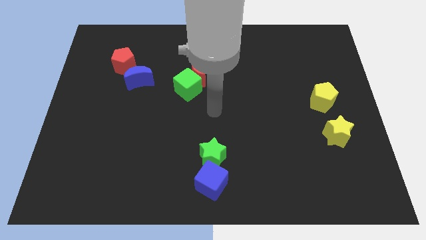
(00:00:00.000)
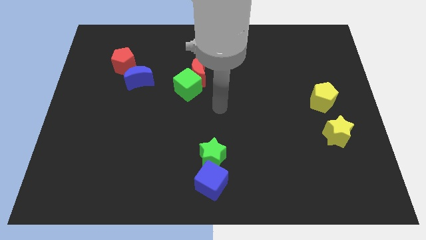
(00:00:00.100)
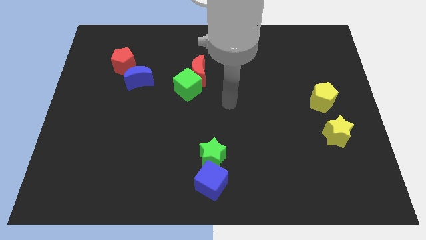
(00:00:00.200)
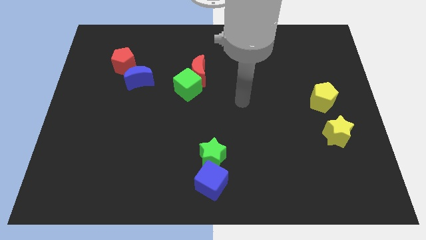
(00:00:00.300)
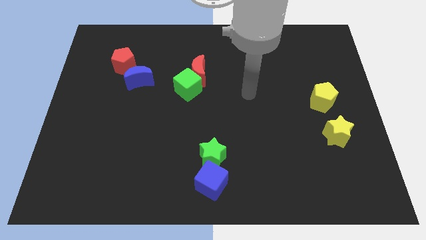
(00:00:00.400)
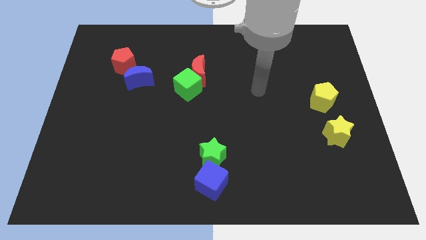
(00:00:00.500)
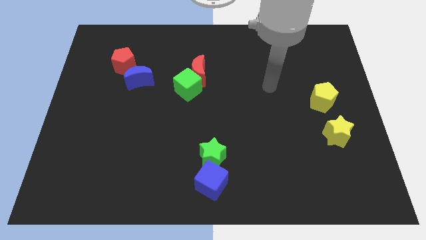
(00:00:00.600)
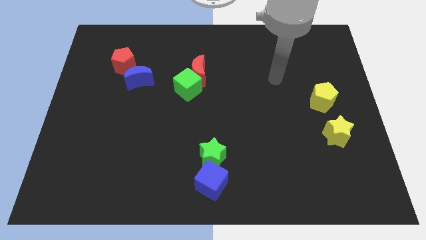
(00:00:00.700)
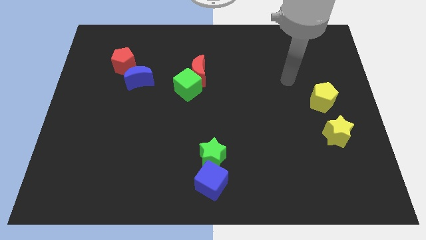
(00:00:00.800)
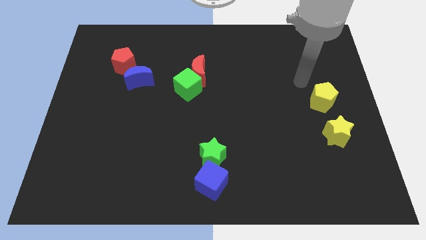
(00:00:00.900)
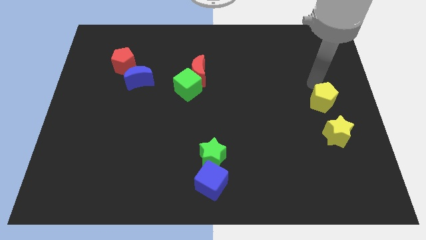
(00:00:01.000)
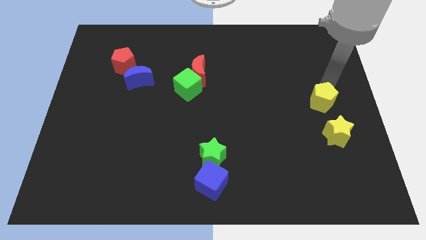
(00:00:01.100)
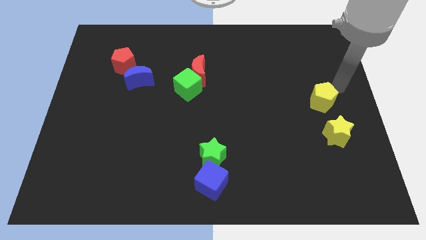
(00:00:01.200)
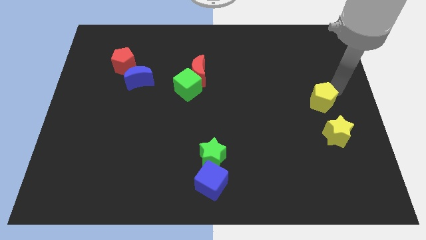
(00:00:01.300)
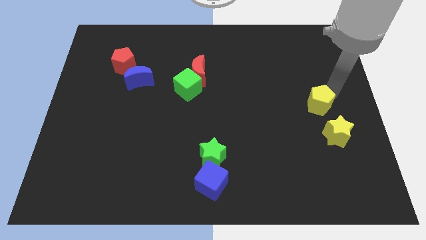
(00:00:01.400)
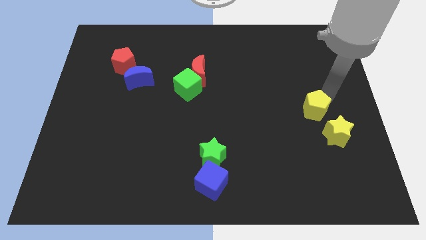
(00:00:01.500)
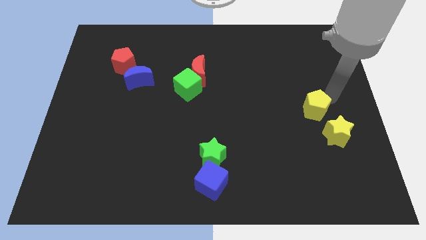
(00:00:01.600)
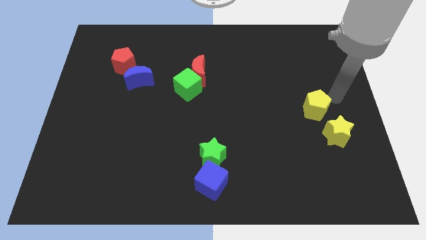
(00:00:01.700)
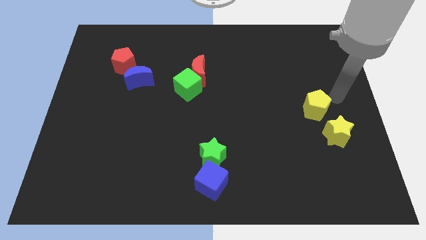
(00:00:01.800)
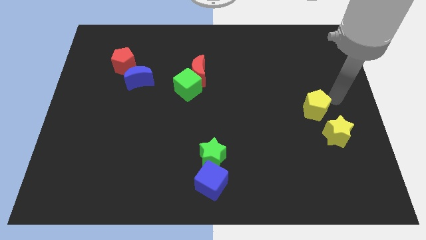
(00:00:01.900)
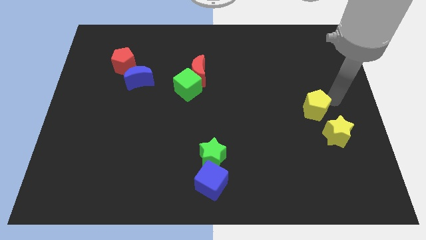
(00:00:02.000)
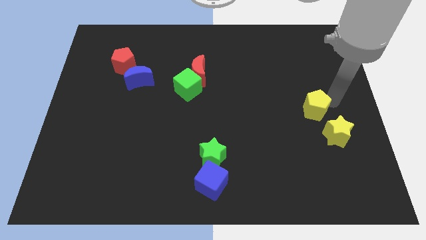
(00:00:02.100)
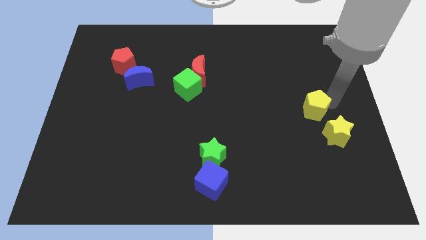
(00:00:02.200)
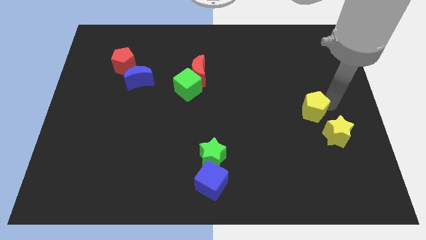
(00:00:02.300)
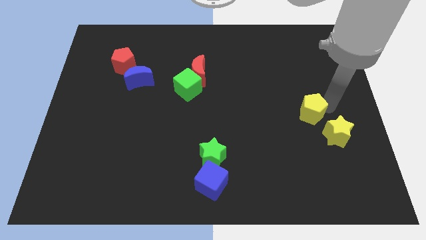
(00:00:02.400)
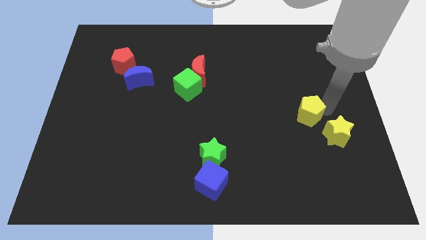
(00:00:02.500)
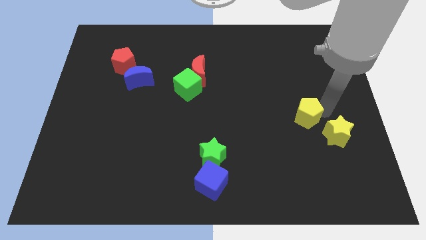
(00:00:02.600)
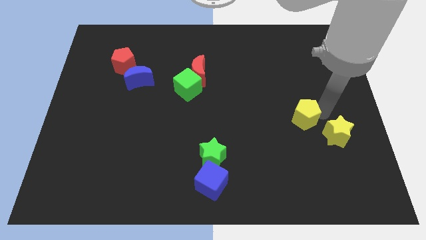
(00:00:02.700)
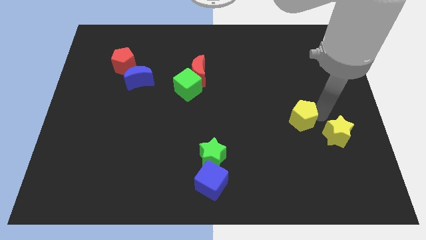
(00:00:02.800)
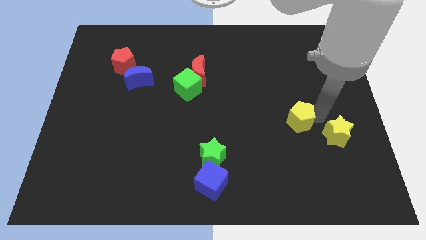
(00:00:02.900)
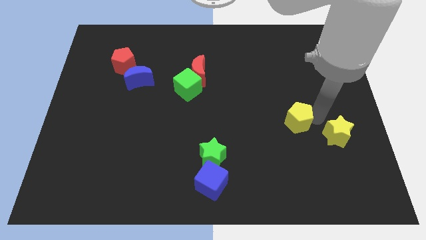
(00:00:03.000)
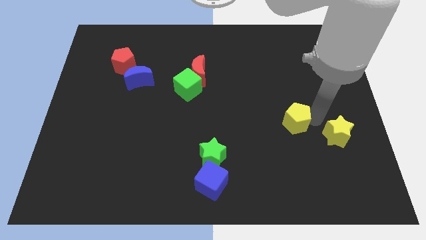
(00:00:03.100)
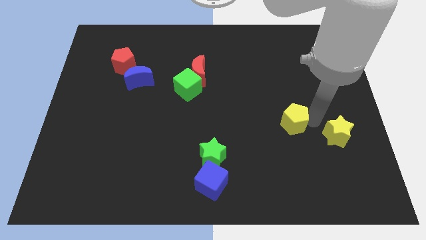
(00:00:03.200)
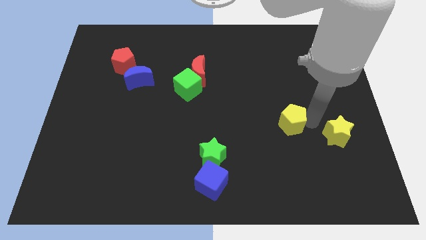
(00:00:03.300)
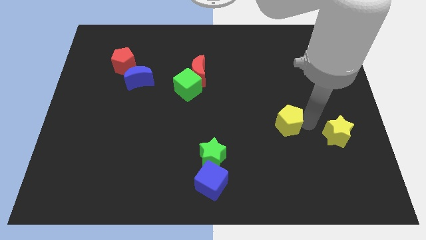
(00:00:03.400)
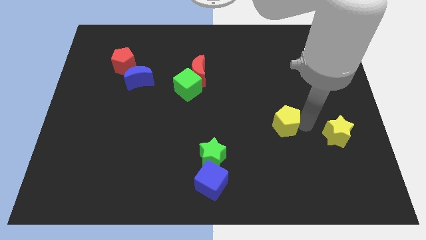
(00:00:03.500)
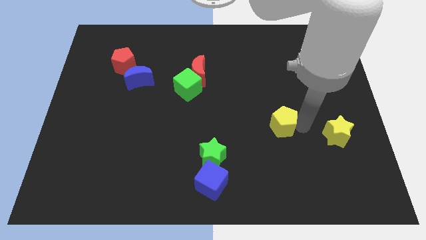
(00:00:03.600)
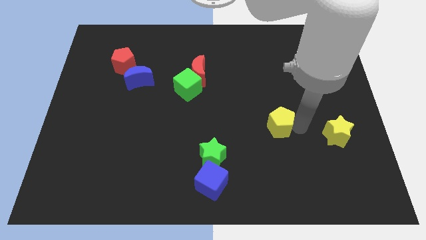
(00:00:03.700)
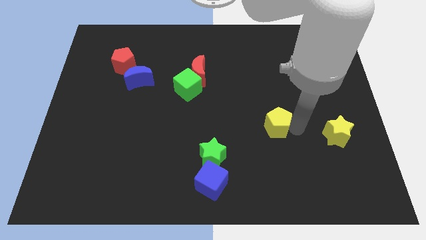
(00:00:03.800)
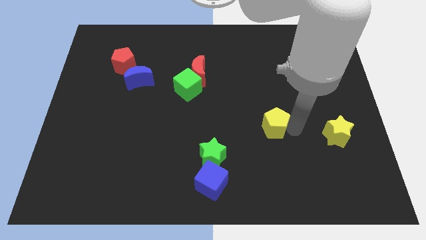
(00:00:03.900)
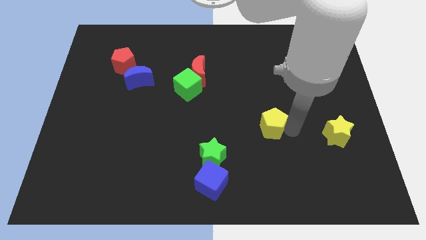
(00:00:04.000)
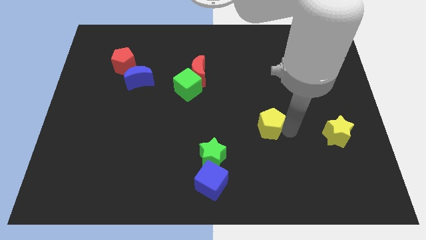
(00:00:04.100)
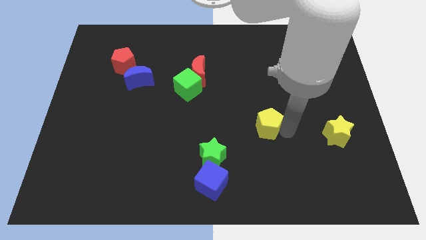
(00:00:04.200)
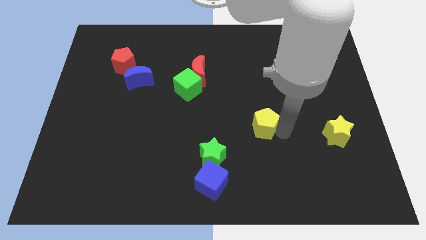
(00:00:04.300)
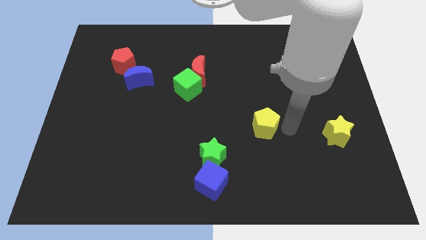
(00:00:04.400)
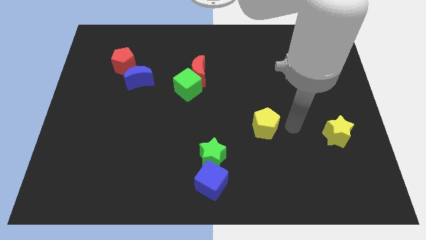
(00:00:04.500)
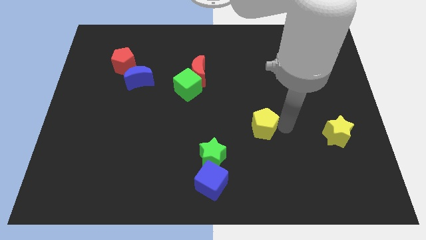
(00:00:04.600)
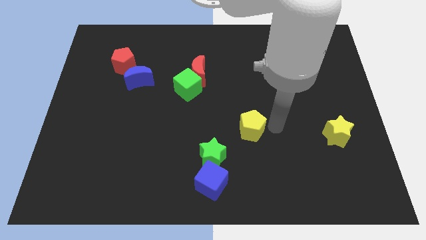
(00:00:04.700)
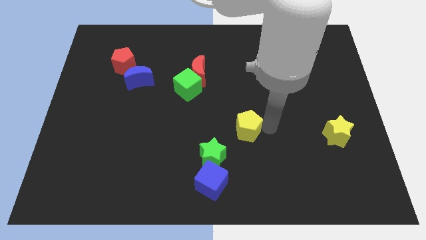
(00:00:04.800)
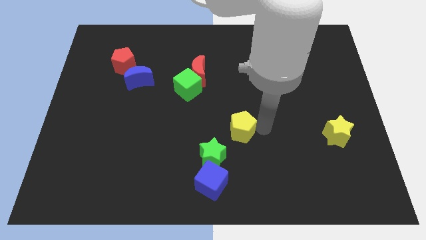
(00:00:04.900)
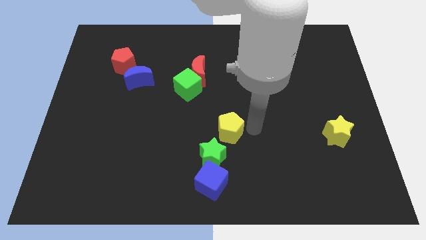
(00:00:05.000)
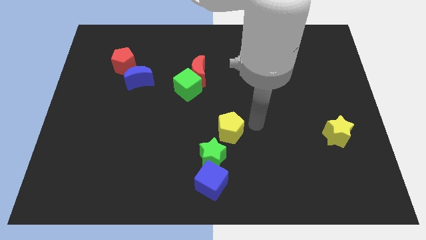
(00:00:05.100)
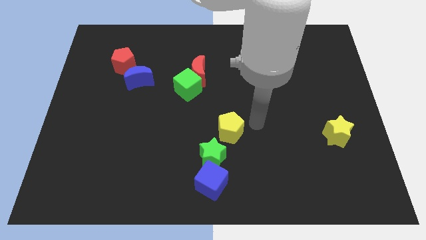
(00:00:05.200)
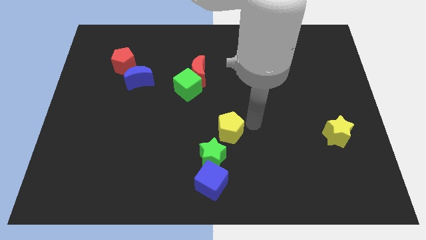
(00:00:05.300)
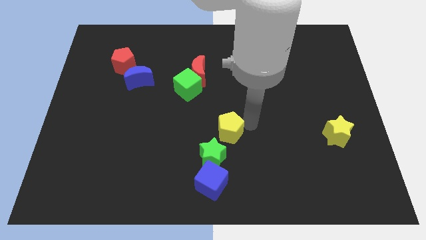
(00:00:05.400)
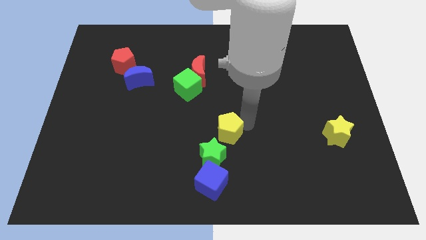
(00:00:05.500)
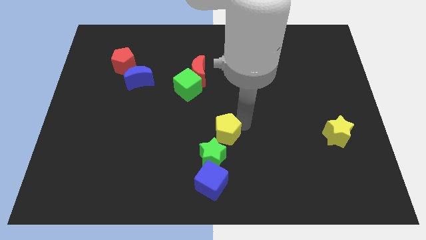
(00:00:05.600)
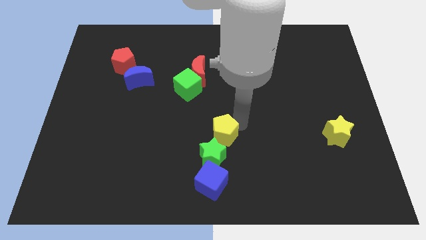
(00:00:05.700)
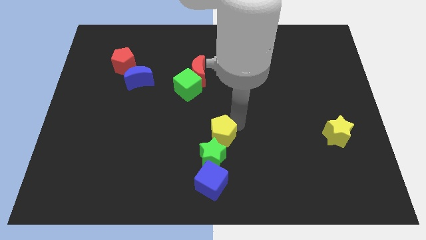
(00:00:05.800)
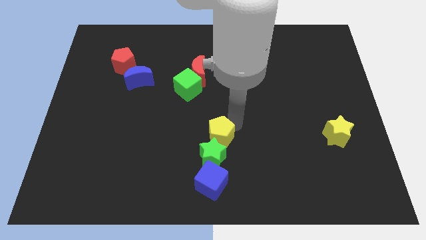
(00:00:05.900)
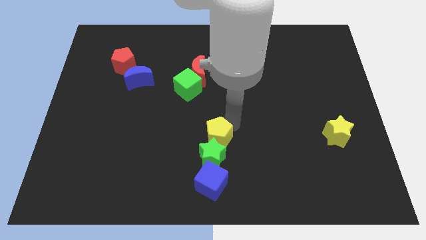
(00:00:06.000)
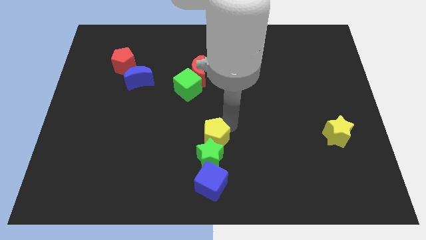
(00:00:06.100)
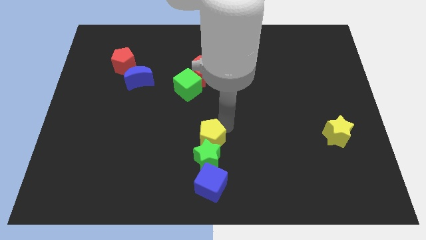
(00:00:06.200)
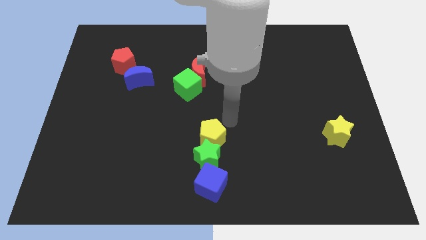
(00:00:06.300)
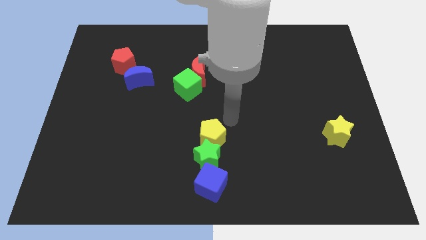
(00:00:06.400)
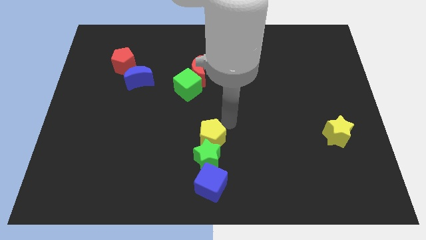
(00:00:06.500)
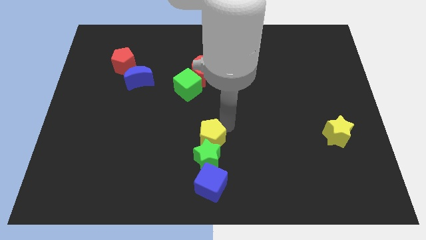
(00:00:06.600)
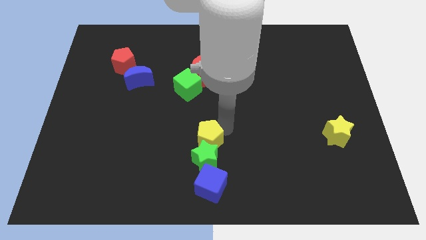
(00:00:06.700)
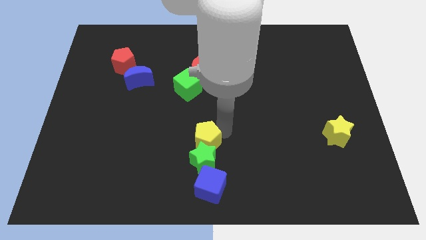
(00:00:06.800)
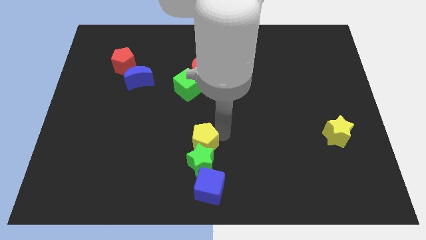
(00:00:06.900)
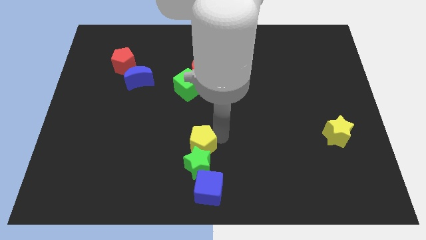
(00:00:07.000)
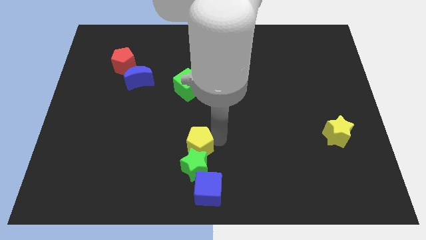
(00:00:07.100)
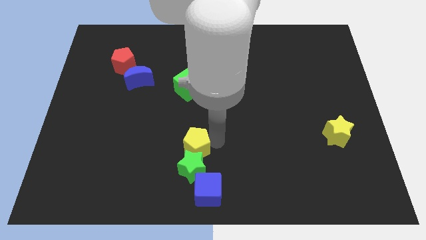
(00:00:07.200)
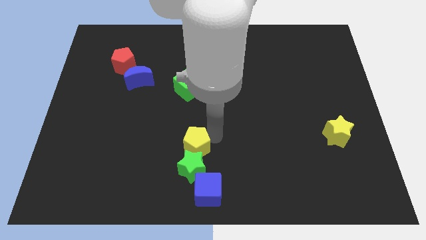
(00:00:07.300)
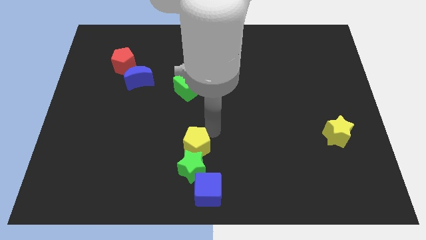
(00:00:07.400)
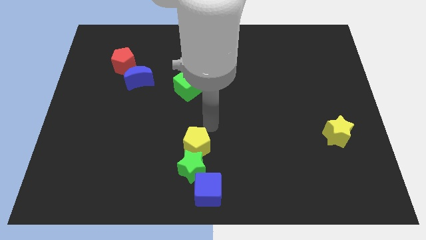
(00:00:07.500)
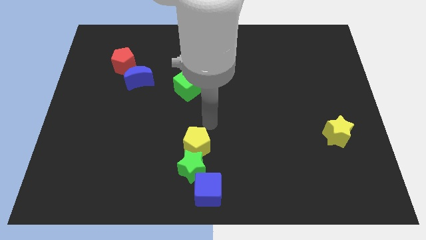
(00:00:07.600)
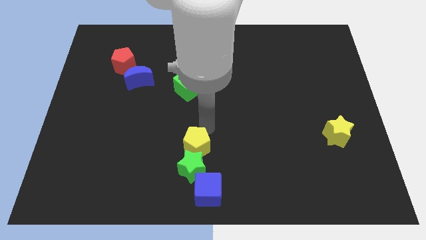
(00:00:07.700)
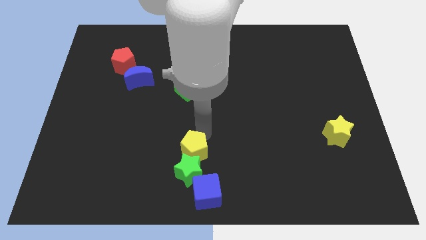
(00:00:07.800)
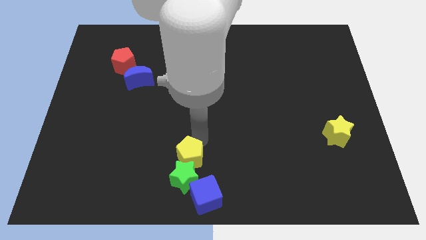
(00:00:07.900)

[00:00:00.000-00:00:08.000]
move the yellow pentagon diagonally up and to the left of the blue cube

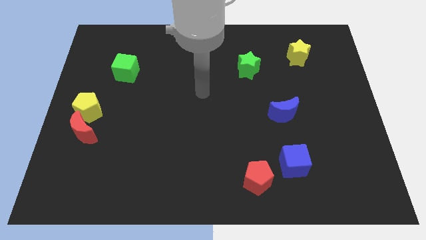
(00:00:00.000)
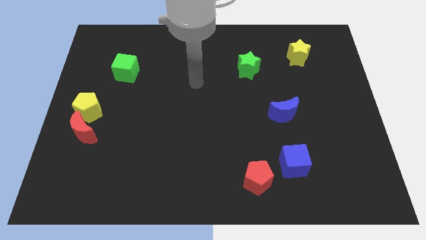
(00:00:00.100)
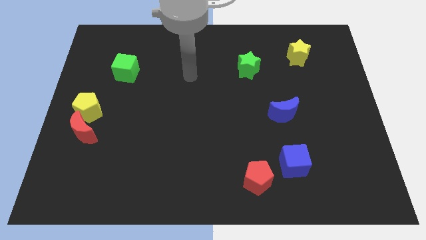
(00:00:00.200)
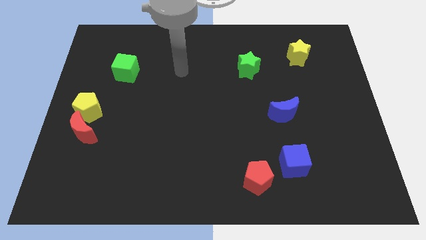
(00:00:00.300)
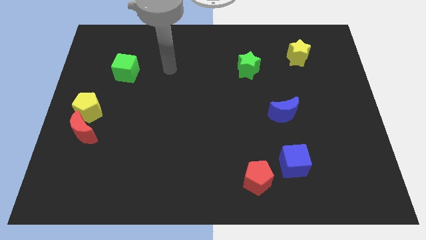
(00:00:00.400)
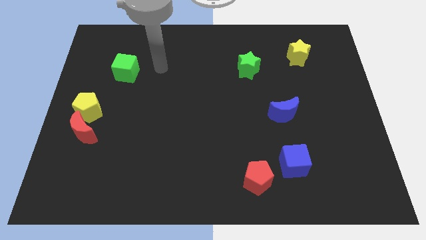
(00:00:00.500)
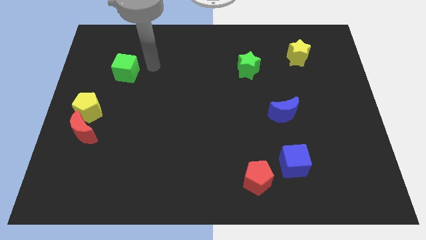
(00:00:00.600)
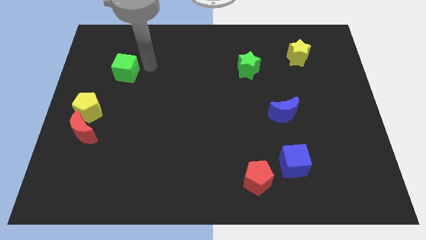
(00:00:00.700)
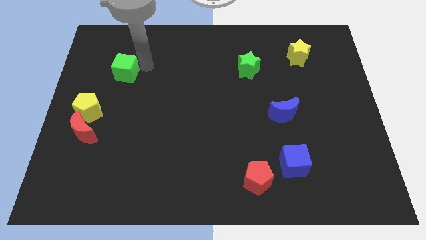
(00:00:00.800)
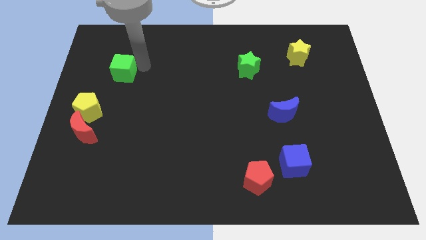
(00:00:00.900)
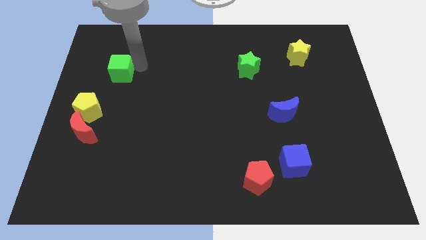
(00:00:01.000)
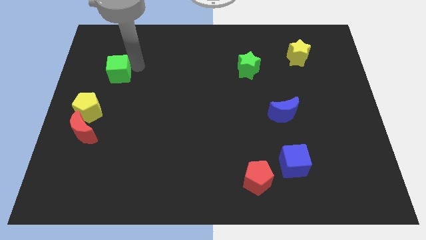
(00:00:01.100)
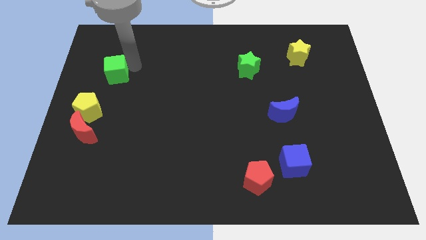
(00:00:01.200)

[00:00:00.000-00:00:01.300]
slide the green cube to the top side of the yellow pentagon
